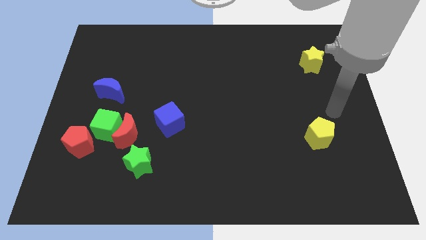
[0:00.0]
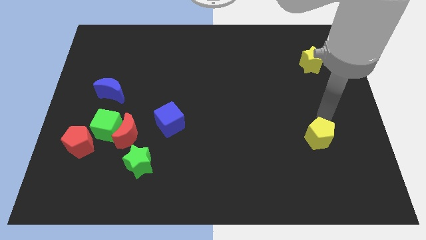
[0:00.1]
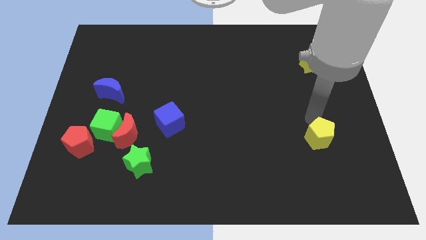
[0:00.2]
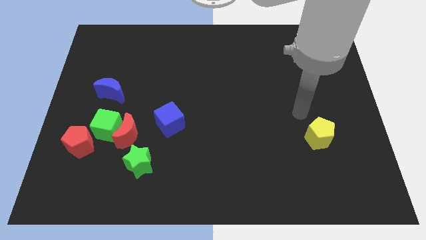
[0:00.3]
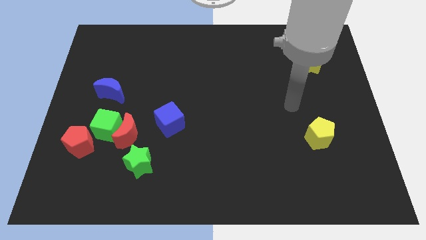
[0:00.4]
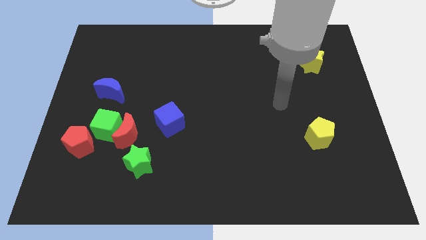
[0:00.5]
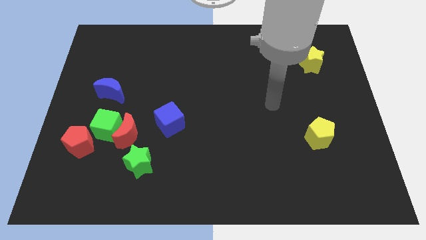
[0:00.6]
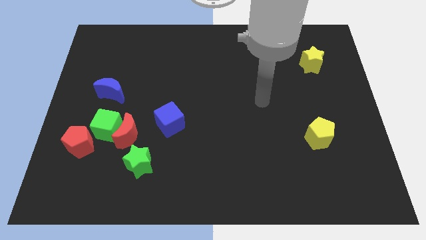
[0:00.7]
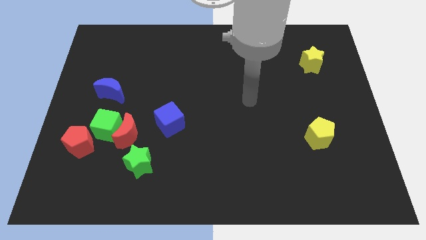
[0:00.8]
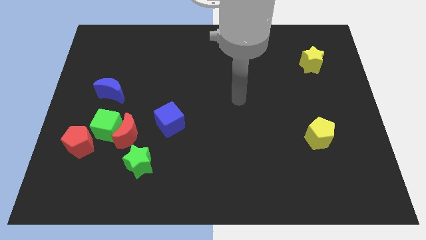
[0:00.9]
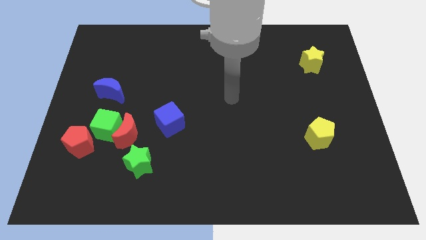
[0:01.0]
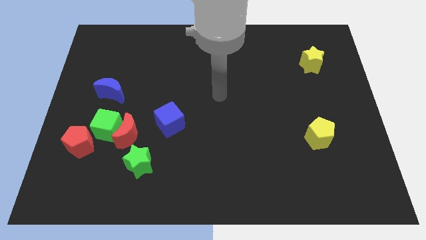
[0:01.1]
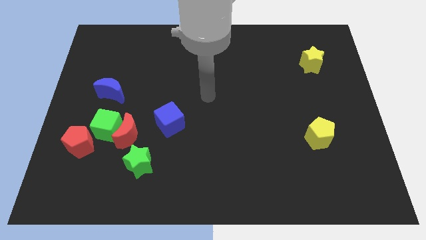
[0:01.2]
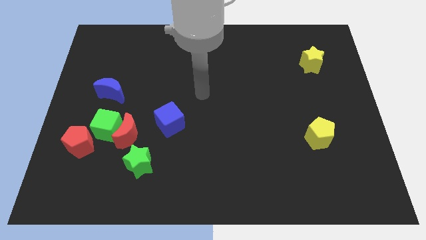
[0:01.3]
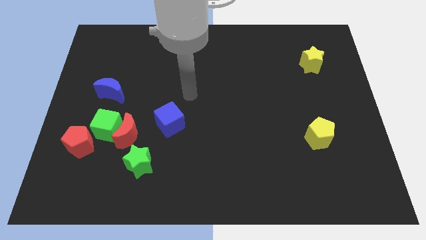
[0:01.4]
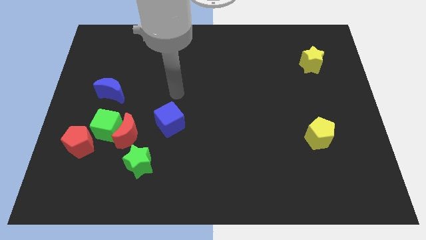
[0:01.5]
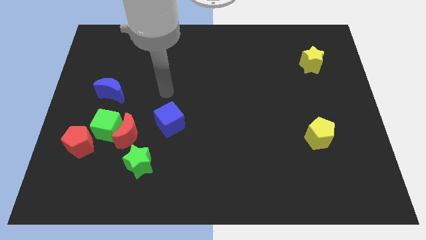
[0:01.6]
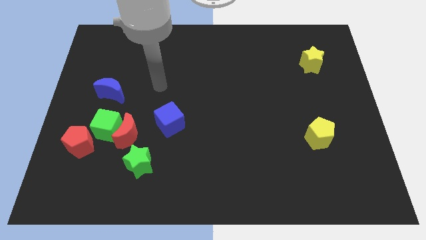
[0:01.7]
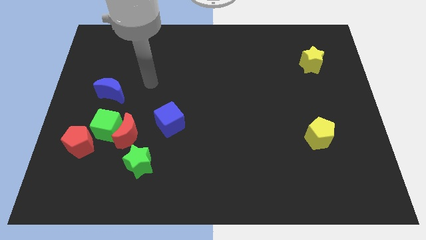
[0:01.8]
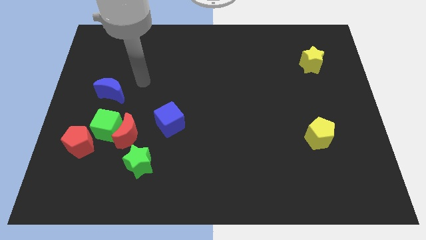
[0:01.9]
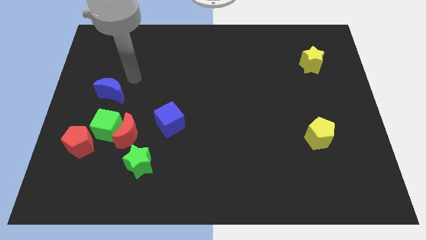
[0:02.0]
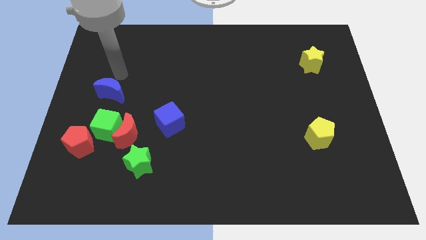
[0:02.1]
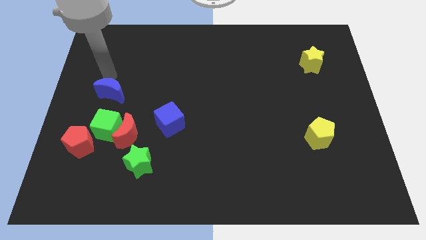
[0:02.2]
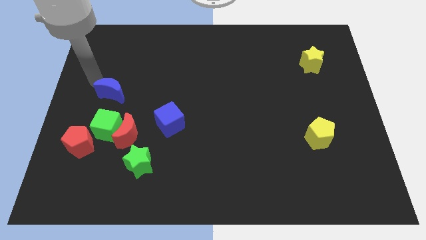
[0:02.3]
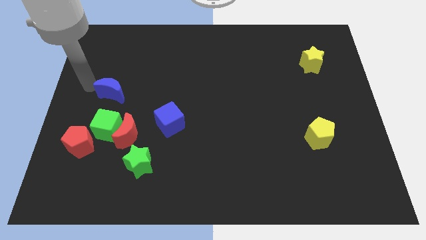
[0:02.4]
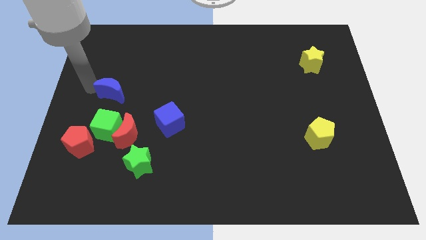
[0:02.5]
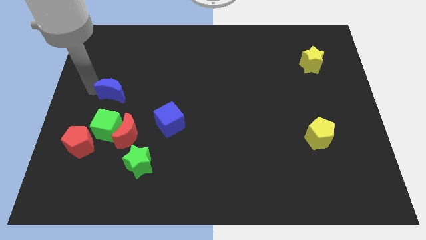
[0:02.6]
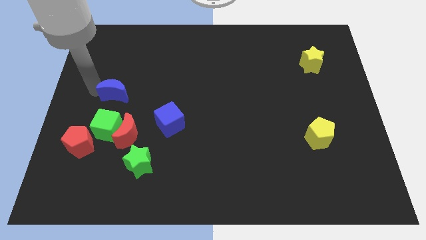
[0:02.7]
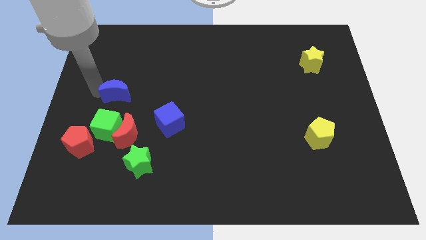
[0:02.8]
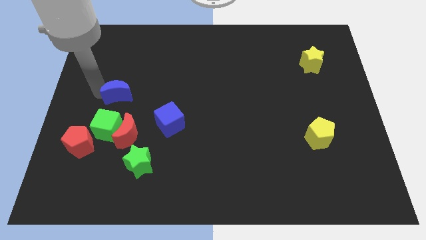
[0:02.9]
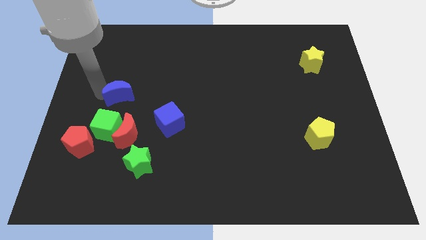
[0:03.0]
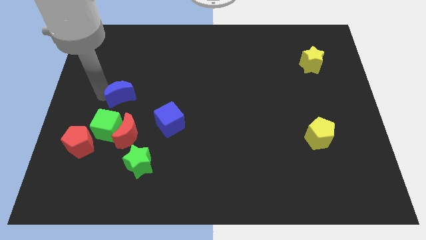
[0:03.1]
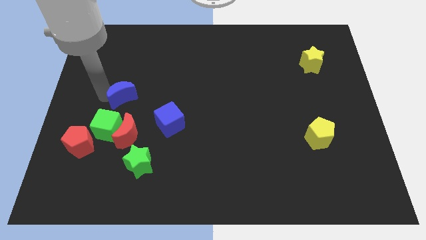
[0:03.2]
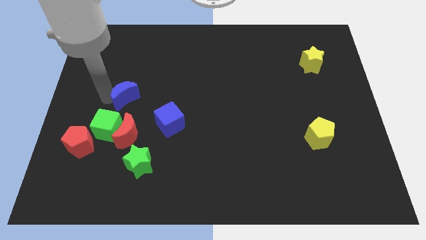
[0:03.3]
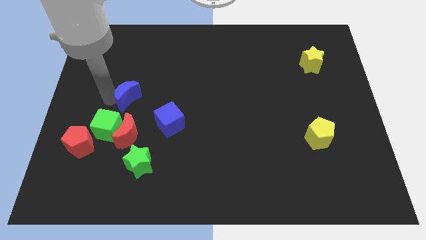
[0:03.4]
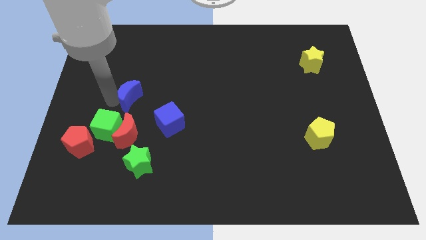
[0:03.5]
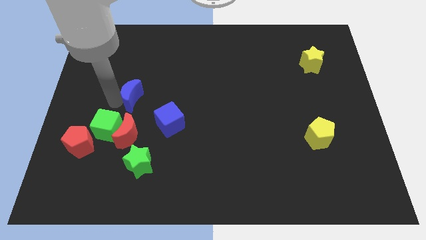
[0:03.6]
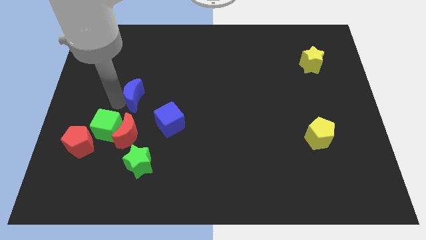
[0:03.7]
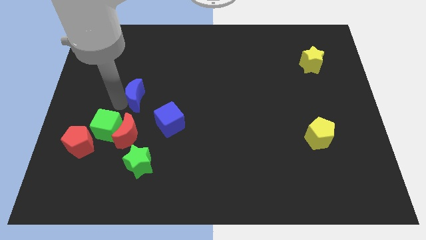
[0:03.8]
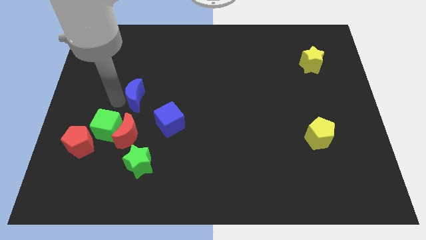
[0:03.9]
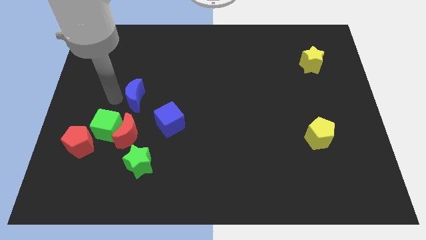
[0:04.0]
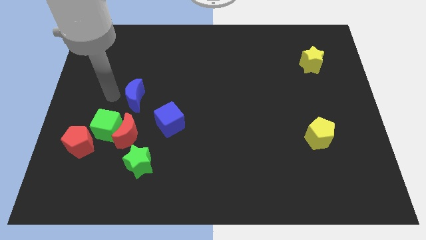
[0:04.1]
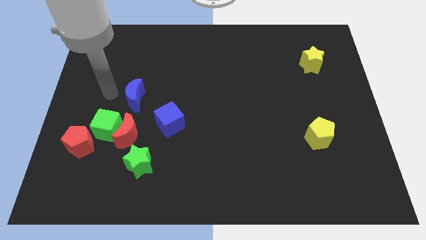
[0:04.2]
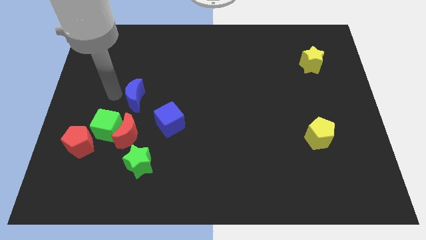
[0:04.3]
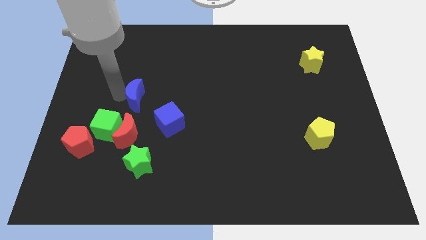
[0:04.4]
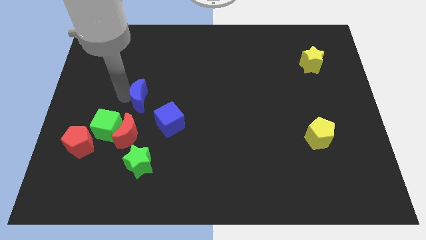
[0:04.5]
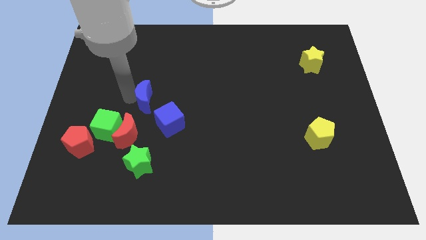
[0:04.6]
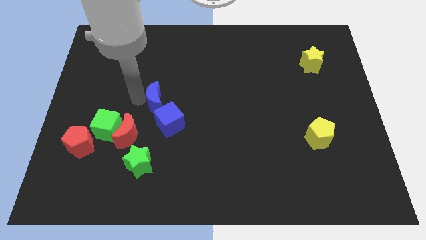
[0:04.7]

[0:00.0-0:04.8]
put the blue moon diagonally up and to the right of the red moon

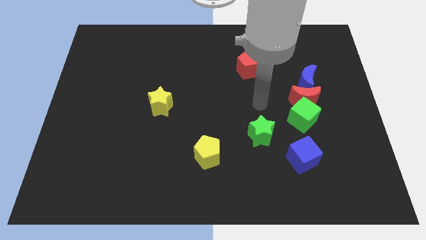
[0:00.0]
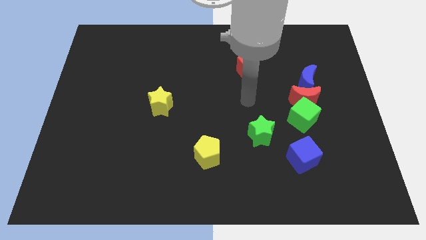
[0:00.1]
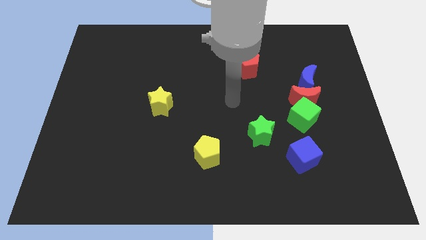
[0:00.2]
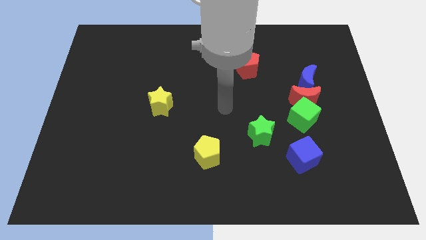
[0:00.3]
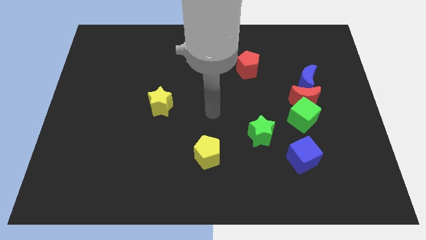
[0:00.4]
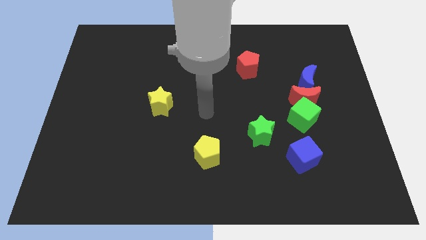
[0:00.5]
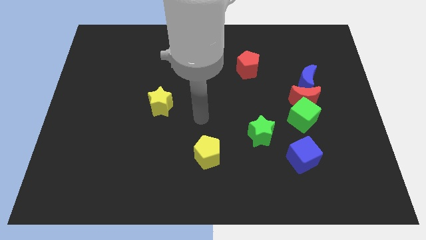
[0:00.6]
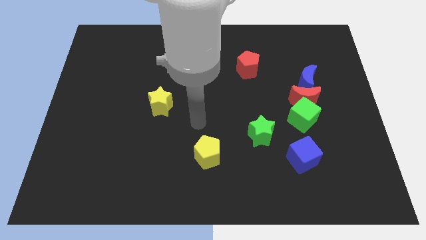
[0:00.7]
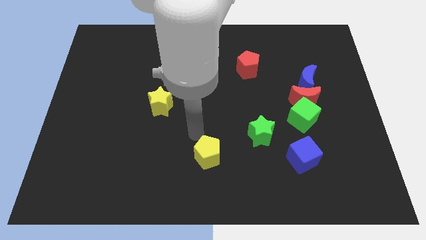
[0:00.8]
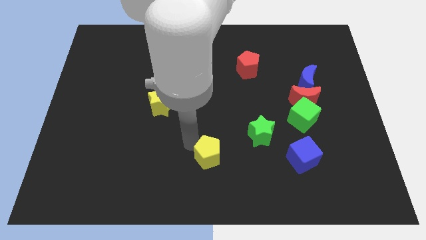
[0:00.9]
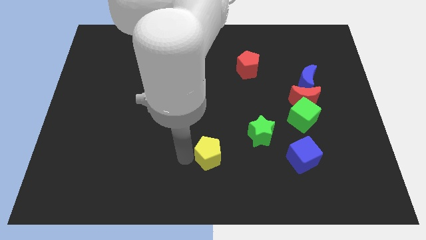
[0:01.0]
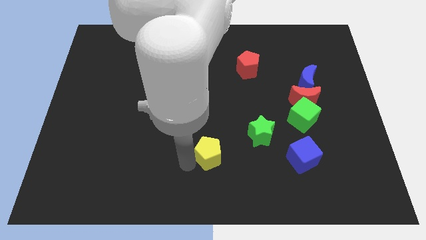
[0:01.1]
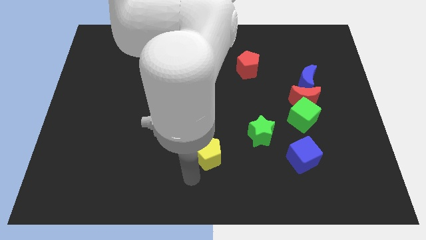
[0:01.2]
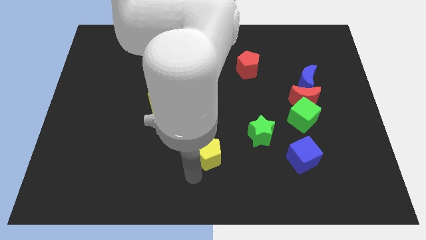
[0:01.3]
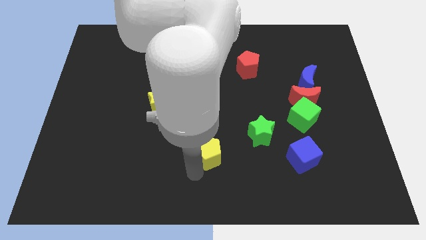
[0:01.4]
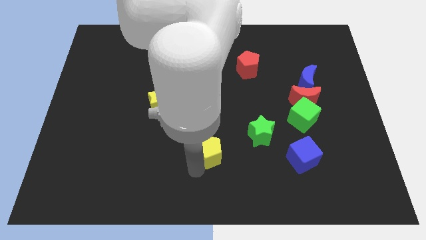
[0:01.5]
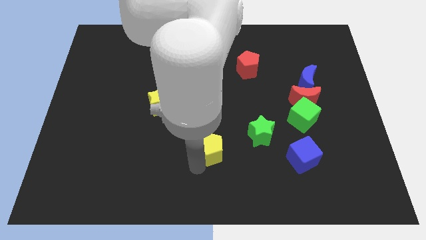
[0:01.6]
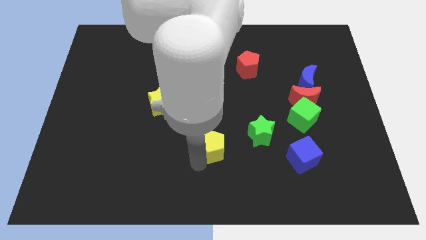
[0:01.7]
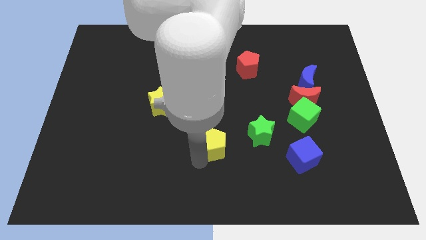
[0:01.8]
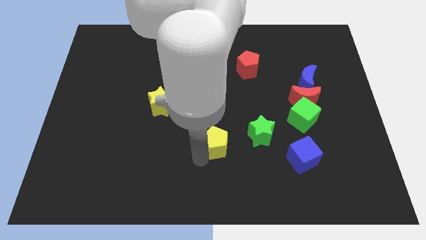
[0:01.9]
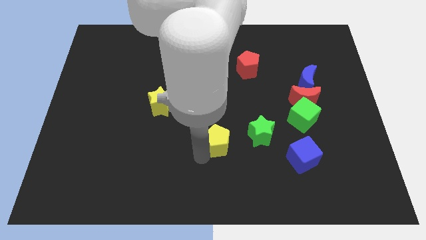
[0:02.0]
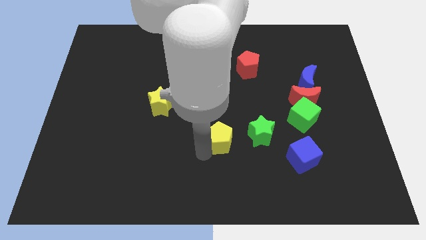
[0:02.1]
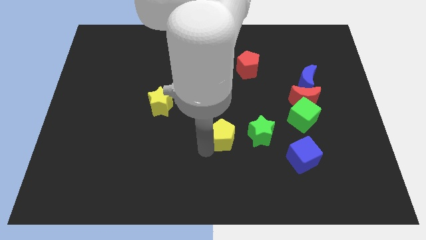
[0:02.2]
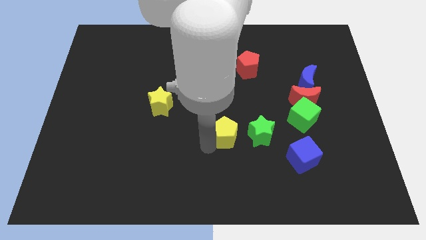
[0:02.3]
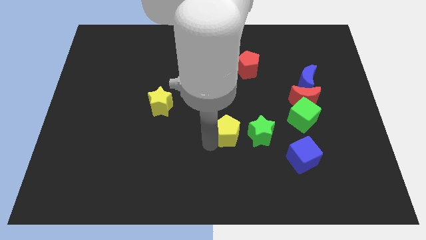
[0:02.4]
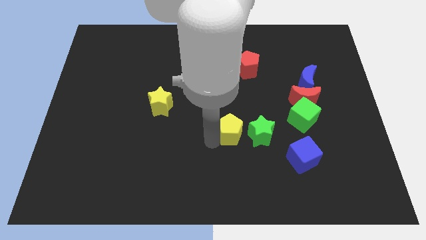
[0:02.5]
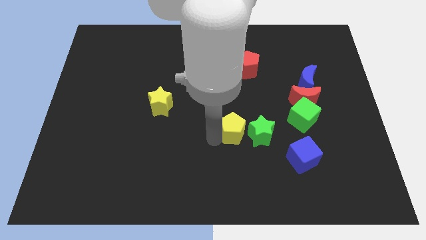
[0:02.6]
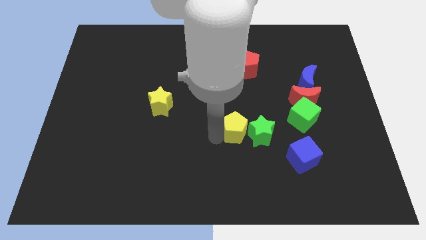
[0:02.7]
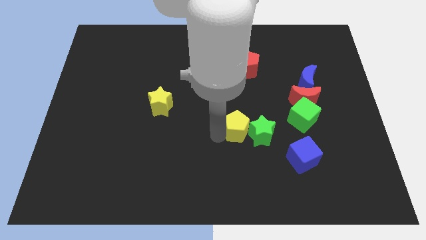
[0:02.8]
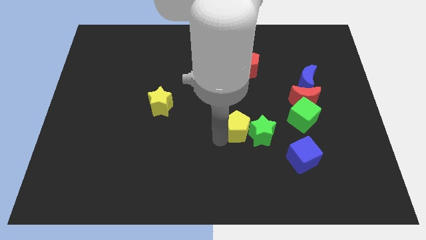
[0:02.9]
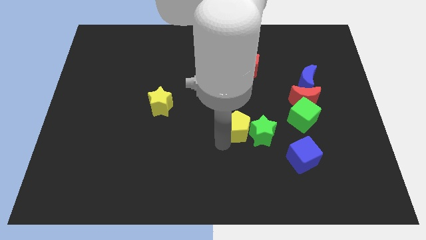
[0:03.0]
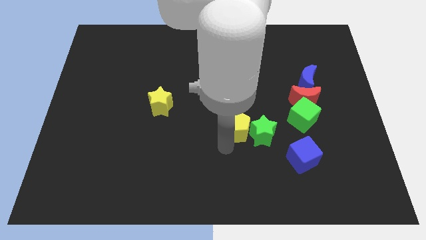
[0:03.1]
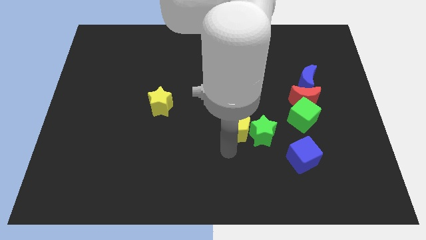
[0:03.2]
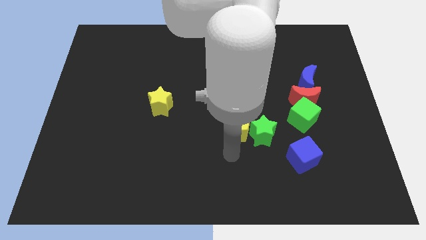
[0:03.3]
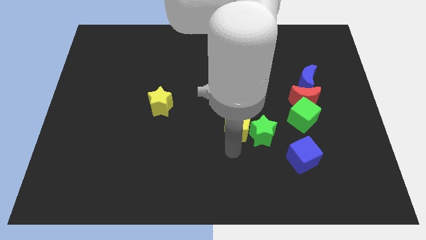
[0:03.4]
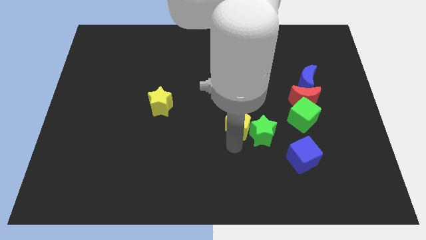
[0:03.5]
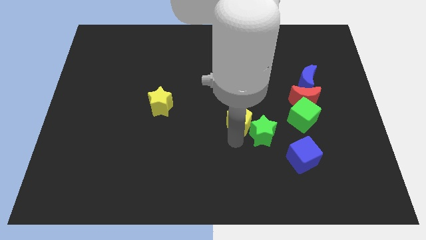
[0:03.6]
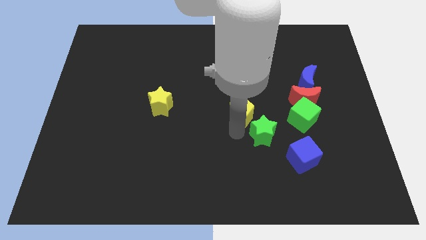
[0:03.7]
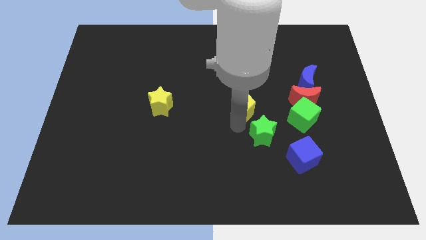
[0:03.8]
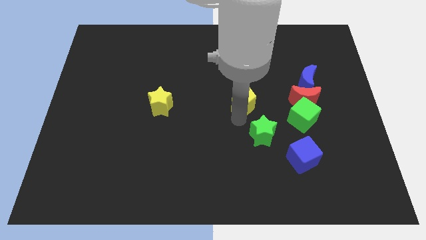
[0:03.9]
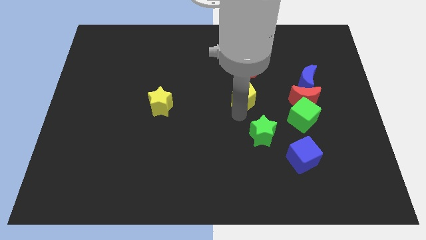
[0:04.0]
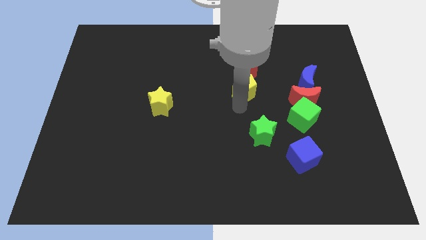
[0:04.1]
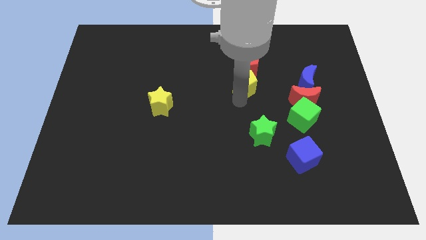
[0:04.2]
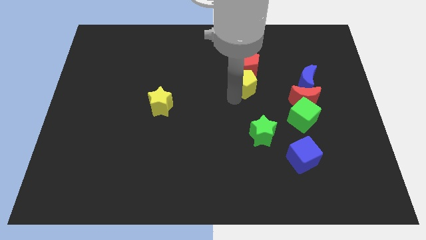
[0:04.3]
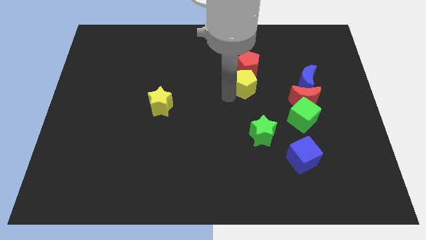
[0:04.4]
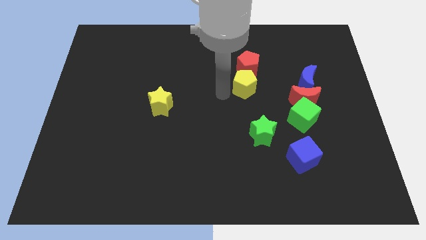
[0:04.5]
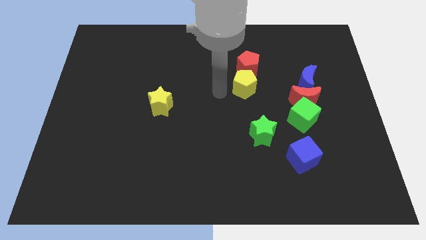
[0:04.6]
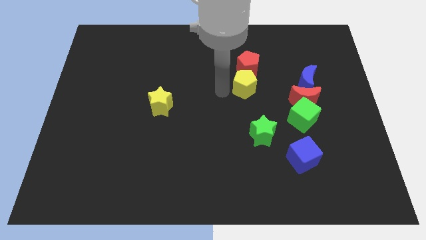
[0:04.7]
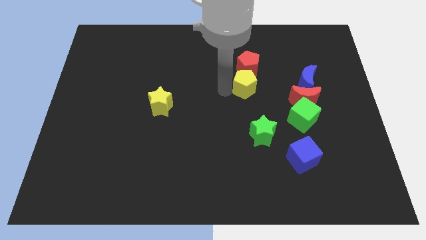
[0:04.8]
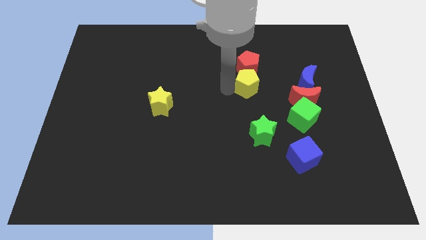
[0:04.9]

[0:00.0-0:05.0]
slide the yellow pentagon diagonally down and to the right of the red pentagon
